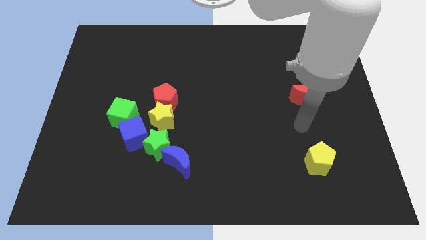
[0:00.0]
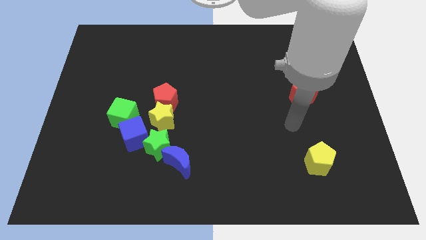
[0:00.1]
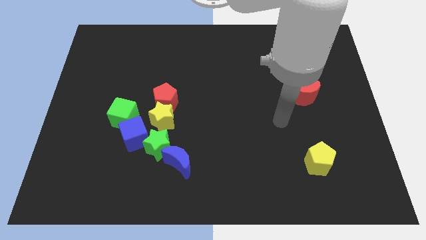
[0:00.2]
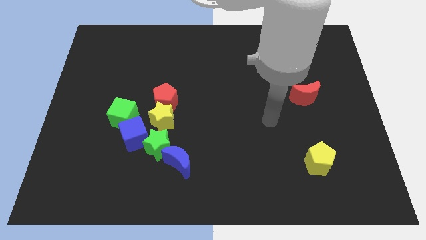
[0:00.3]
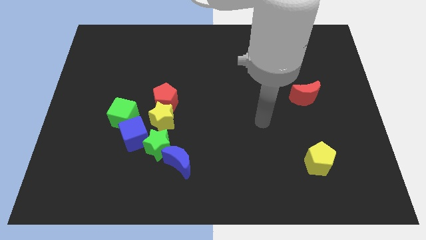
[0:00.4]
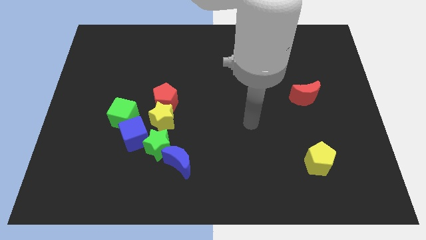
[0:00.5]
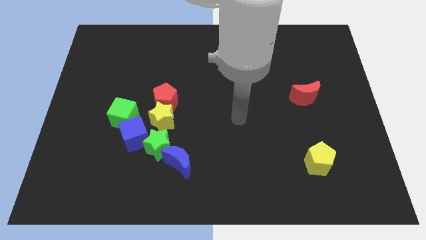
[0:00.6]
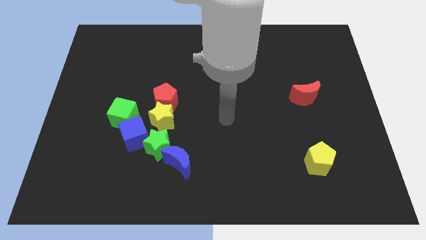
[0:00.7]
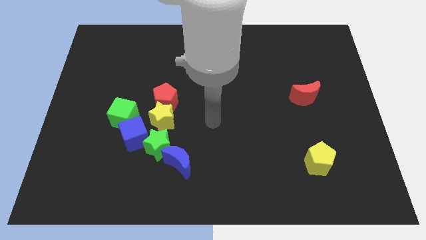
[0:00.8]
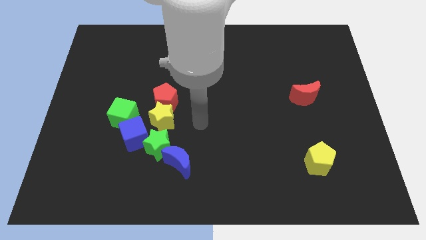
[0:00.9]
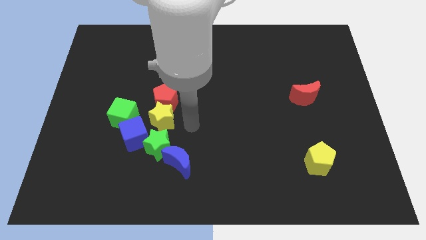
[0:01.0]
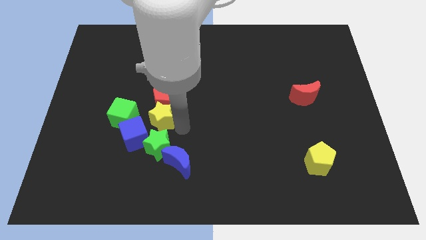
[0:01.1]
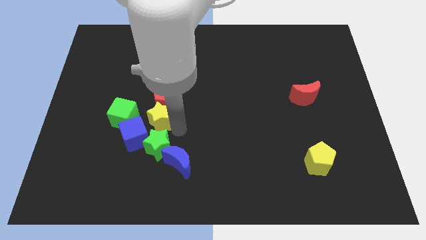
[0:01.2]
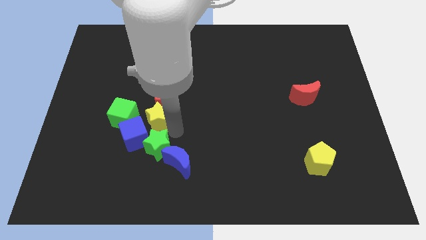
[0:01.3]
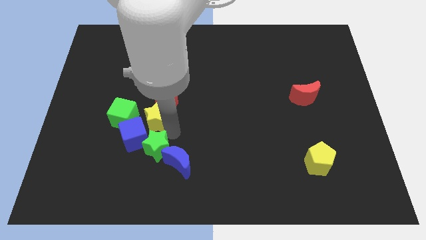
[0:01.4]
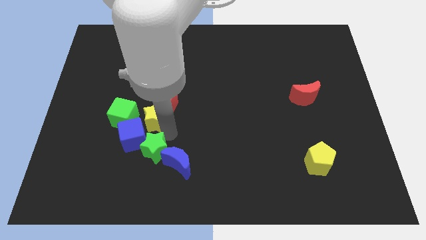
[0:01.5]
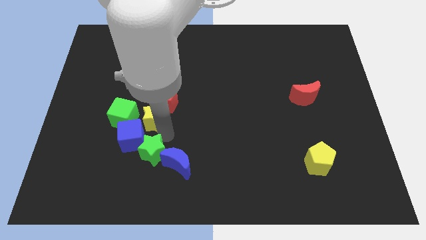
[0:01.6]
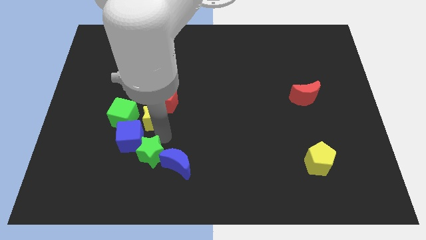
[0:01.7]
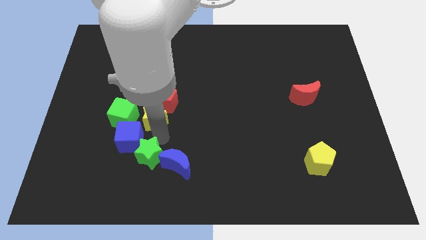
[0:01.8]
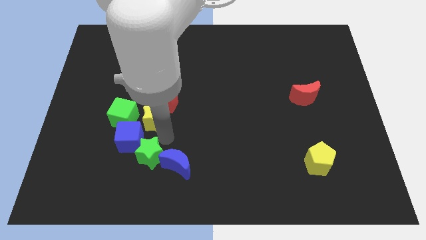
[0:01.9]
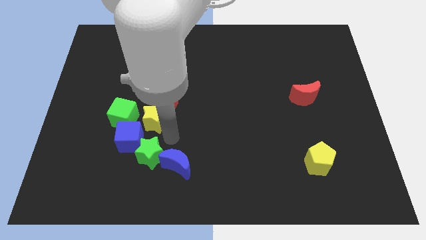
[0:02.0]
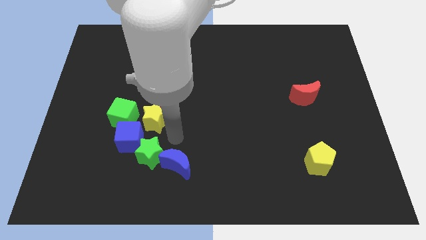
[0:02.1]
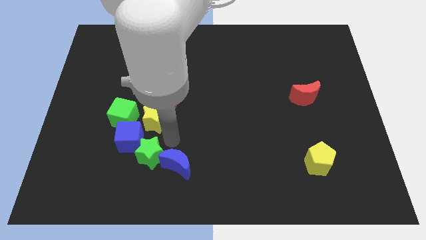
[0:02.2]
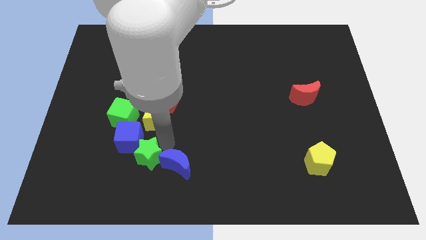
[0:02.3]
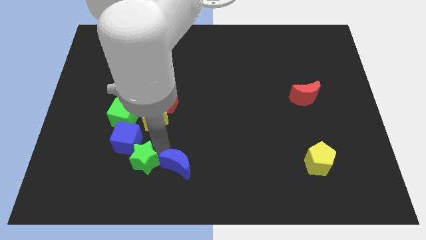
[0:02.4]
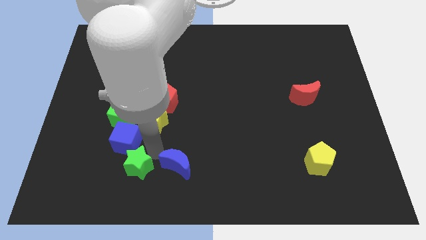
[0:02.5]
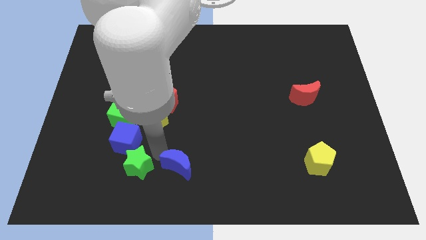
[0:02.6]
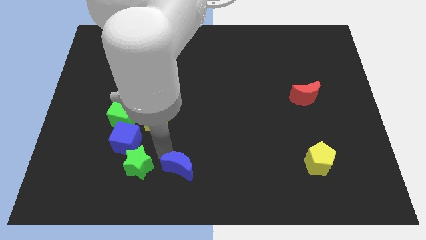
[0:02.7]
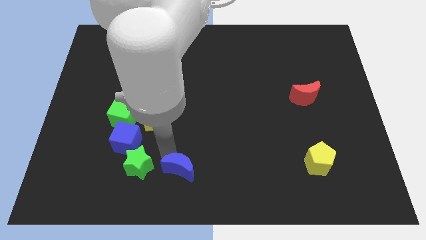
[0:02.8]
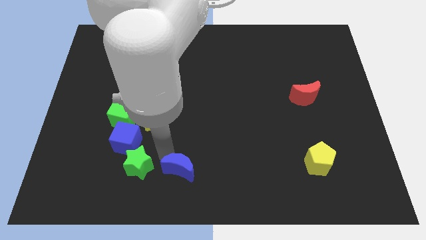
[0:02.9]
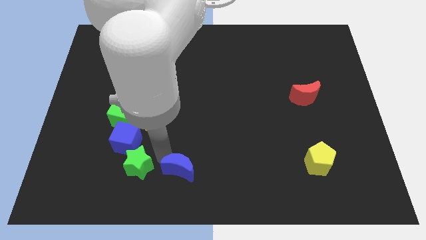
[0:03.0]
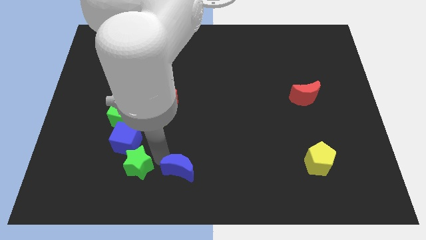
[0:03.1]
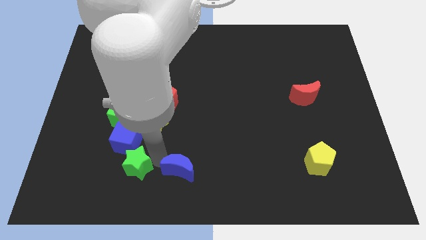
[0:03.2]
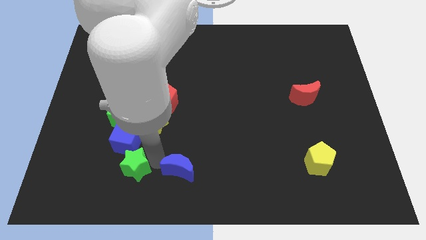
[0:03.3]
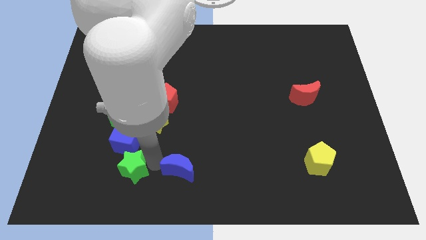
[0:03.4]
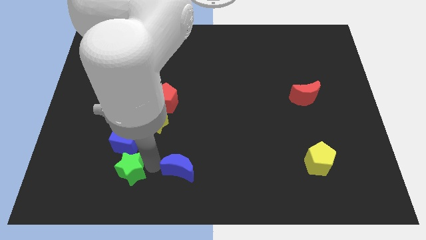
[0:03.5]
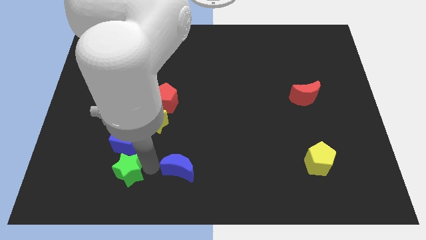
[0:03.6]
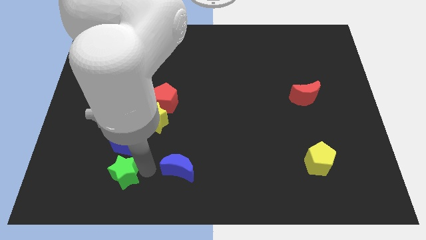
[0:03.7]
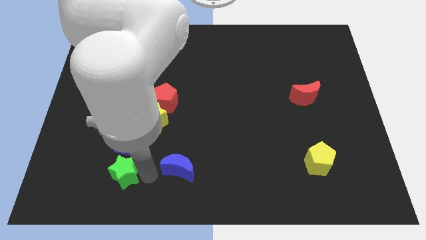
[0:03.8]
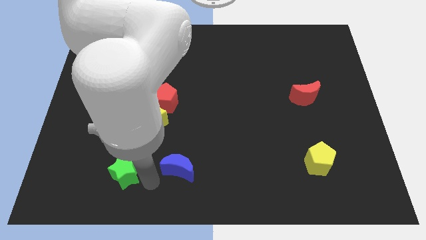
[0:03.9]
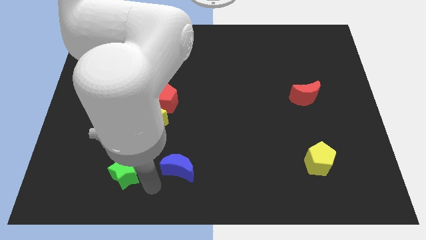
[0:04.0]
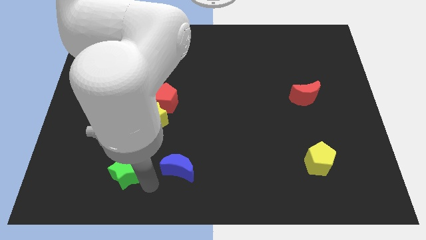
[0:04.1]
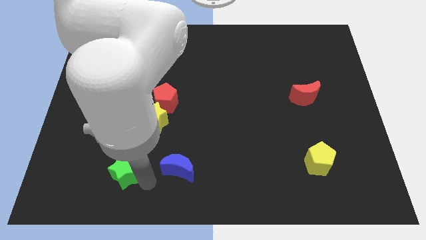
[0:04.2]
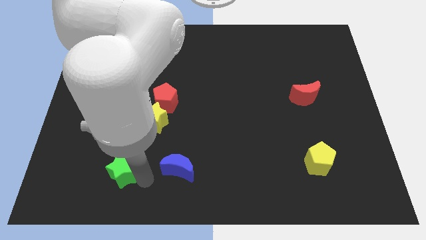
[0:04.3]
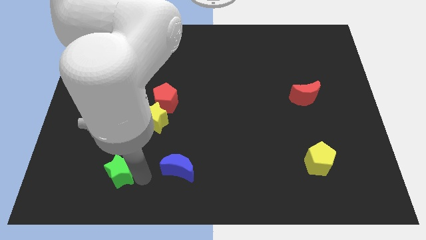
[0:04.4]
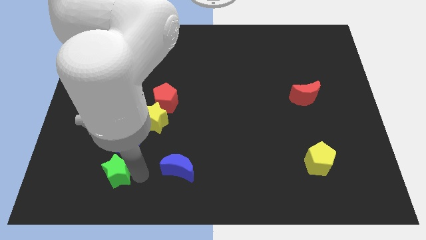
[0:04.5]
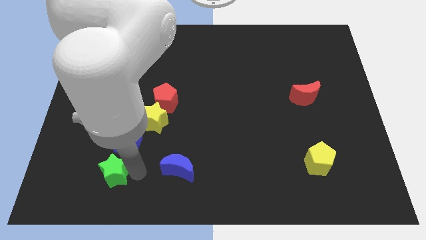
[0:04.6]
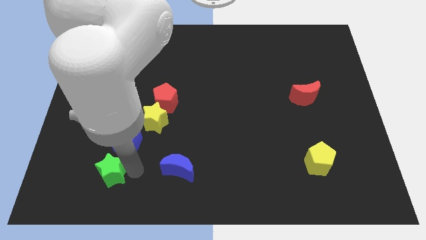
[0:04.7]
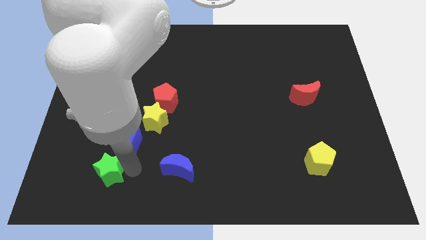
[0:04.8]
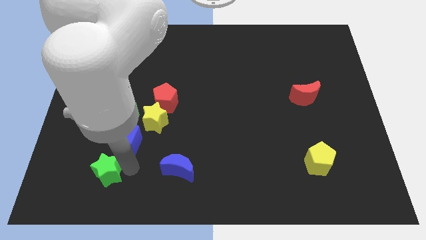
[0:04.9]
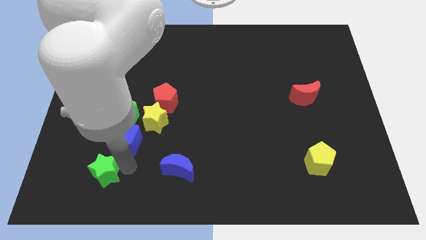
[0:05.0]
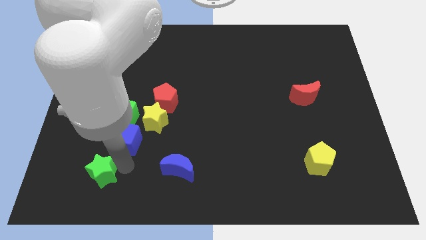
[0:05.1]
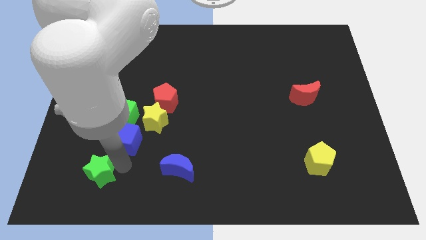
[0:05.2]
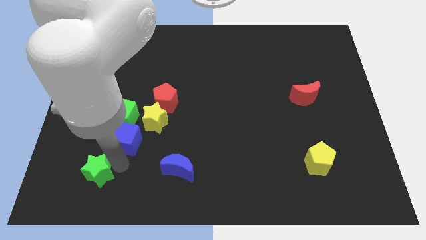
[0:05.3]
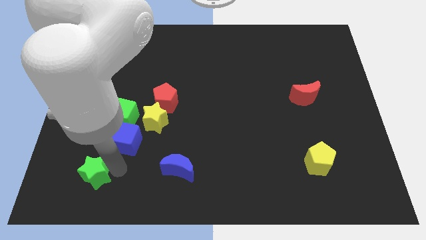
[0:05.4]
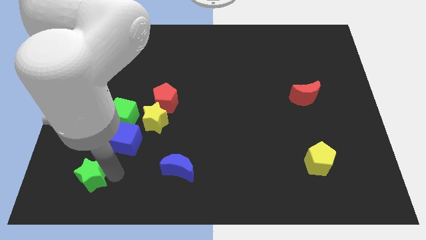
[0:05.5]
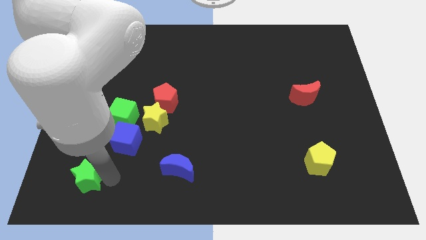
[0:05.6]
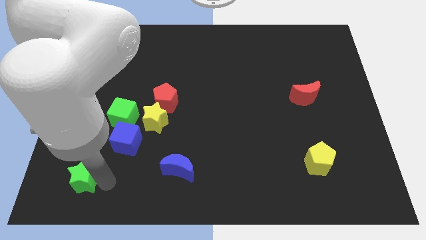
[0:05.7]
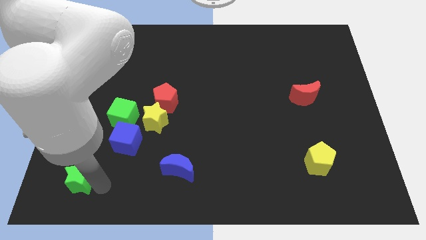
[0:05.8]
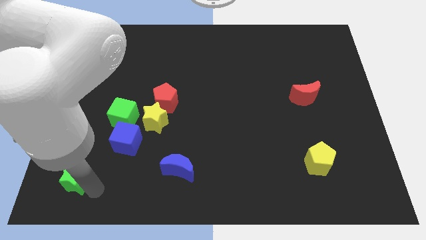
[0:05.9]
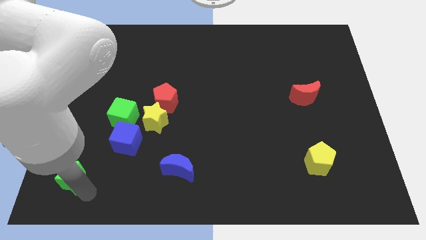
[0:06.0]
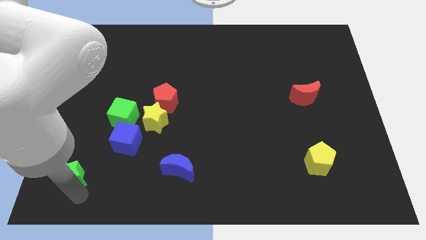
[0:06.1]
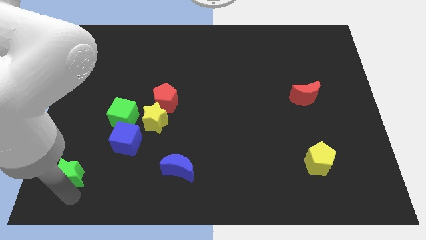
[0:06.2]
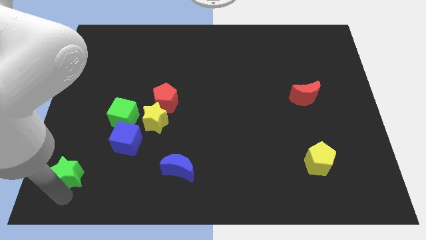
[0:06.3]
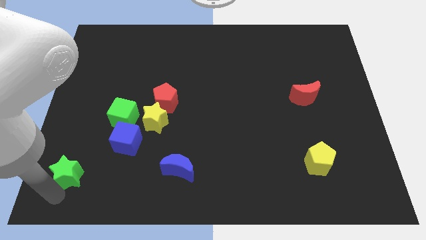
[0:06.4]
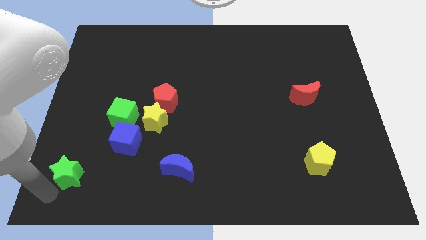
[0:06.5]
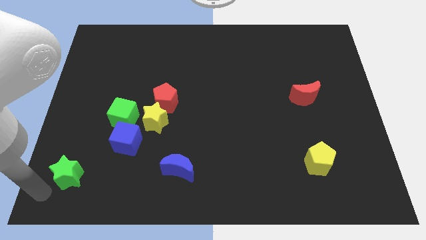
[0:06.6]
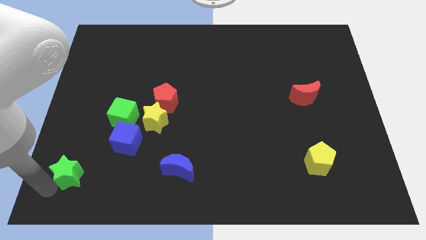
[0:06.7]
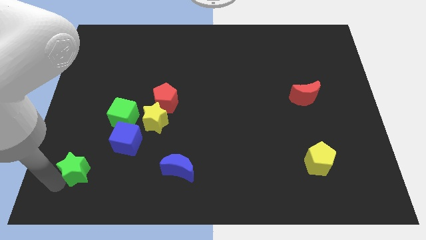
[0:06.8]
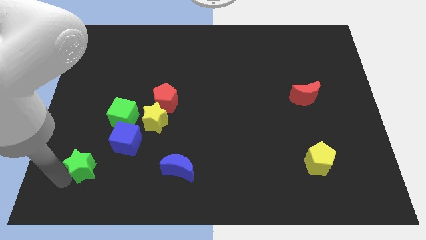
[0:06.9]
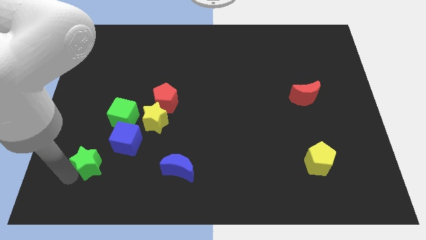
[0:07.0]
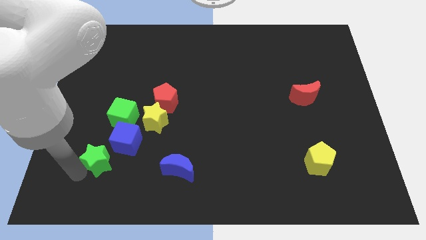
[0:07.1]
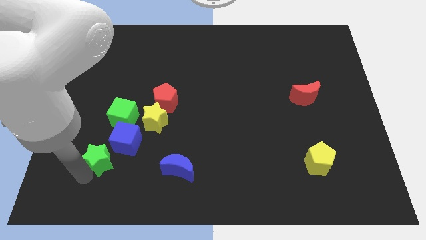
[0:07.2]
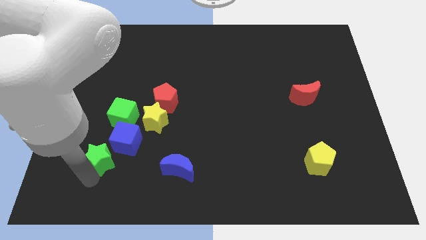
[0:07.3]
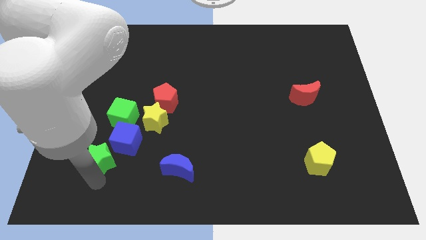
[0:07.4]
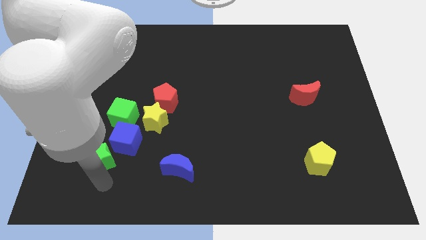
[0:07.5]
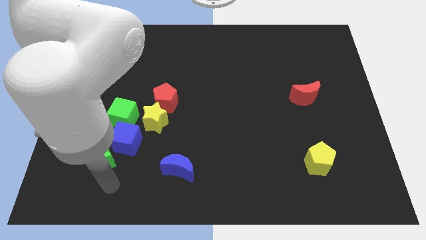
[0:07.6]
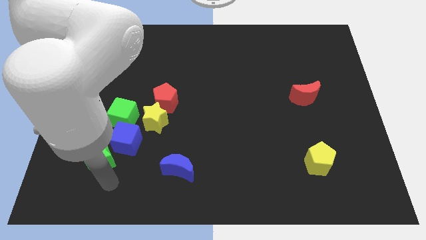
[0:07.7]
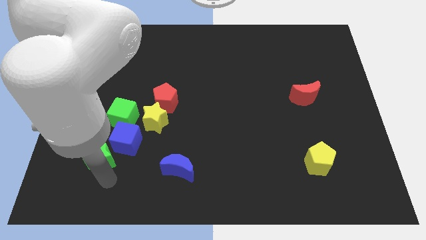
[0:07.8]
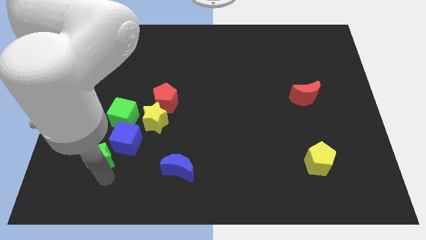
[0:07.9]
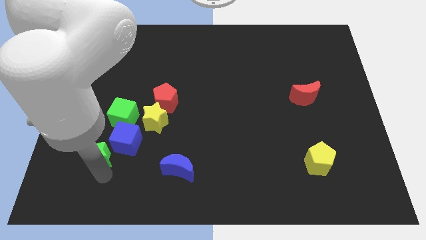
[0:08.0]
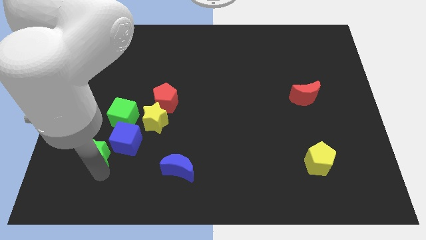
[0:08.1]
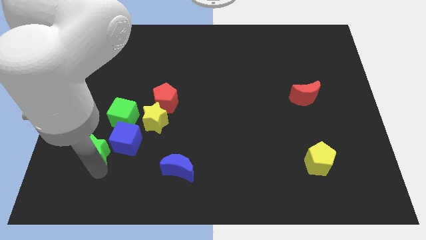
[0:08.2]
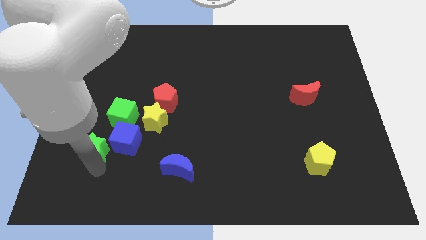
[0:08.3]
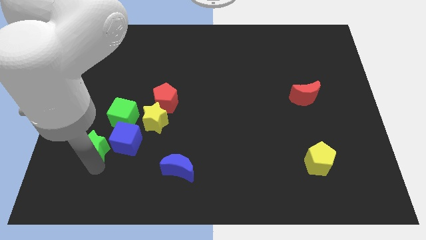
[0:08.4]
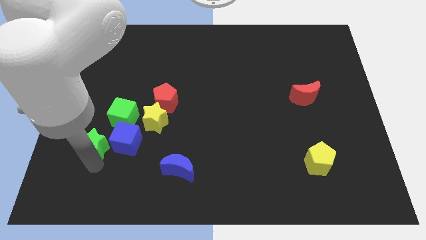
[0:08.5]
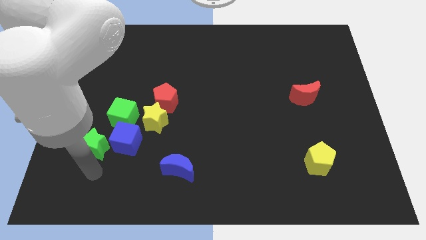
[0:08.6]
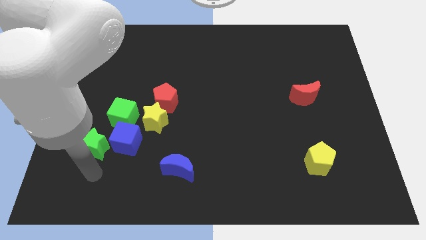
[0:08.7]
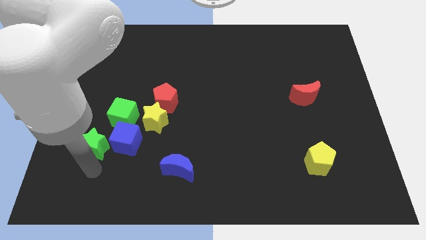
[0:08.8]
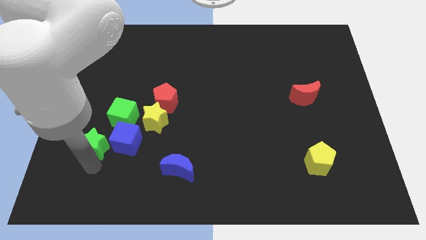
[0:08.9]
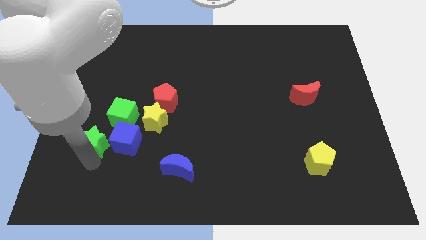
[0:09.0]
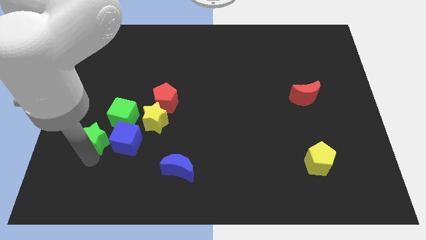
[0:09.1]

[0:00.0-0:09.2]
push the green star somewhat up and left
